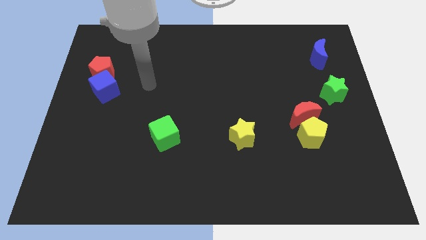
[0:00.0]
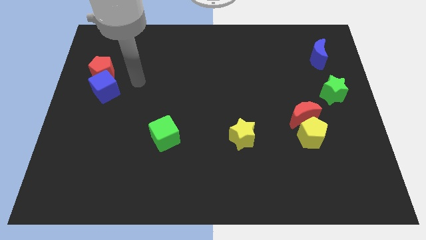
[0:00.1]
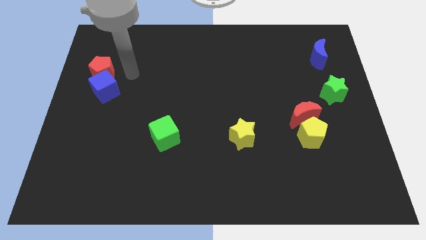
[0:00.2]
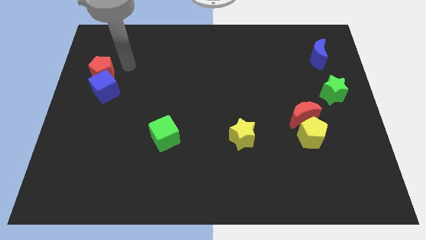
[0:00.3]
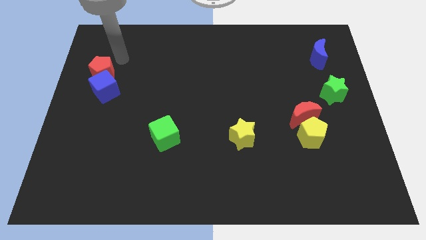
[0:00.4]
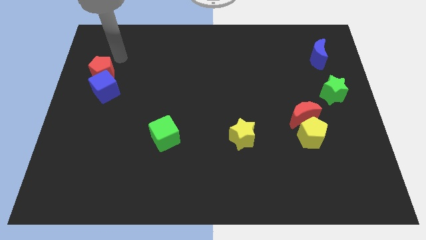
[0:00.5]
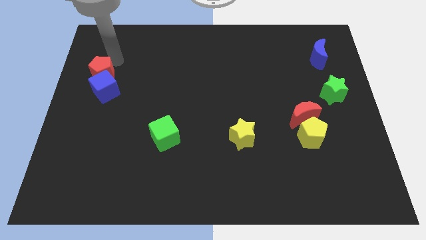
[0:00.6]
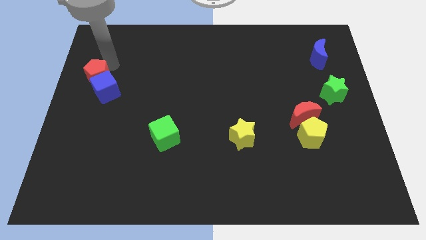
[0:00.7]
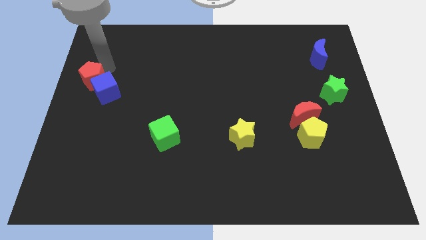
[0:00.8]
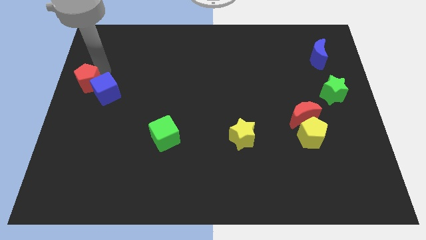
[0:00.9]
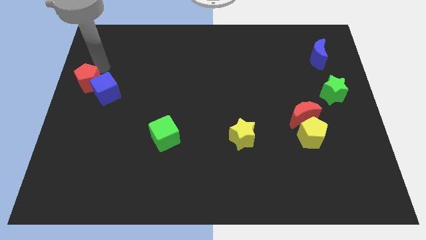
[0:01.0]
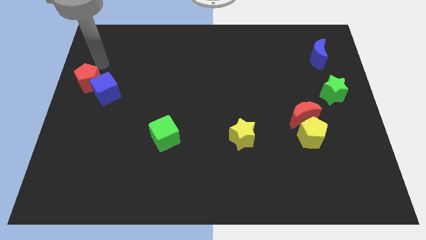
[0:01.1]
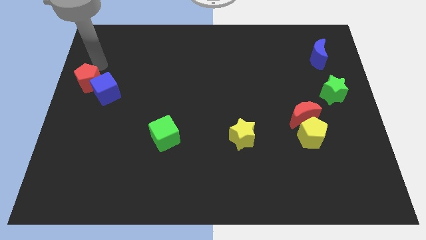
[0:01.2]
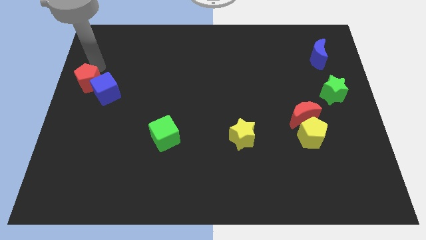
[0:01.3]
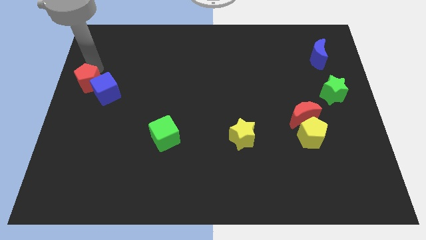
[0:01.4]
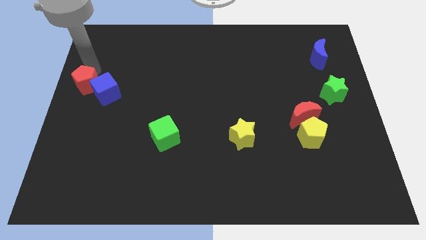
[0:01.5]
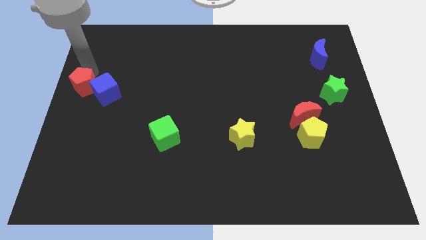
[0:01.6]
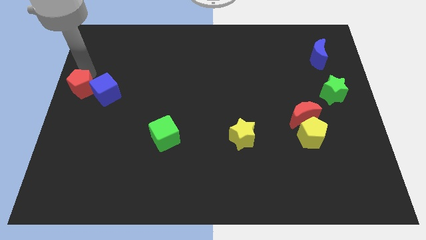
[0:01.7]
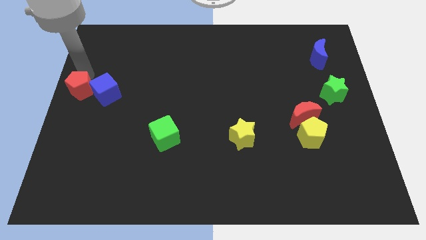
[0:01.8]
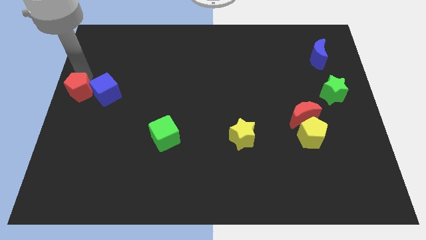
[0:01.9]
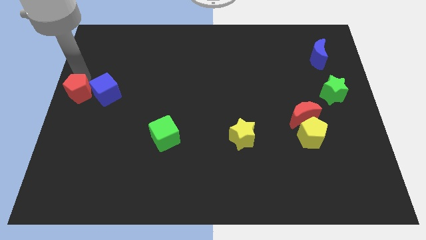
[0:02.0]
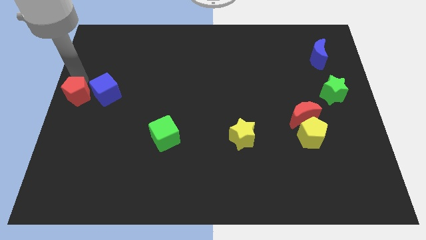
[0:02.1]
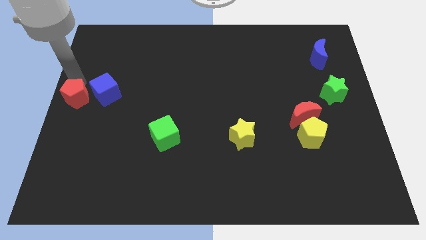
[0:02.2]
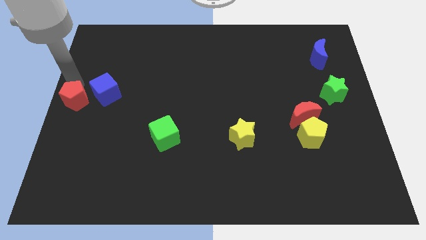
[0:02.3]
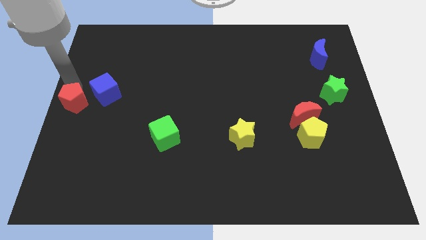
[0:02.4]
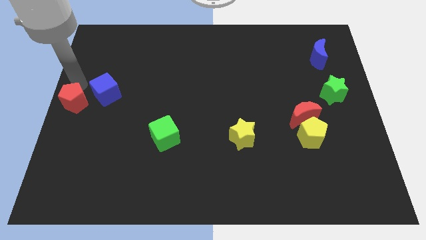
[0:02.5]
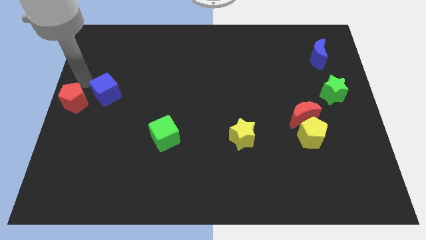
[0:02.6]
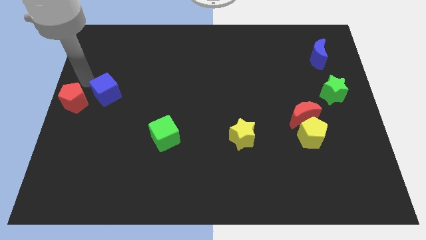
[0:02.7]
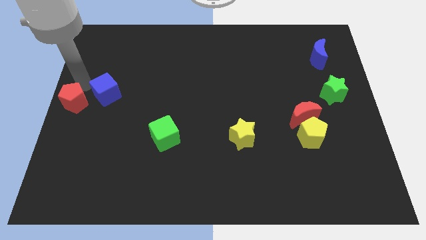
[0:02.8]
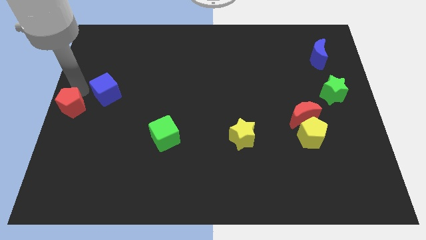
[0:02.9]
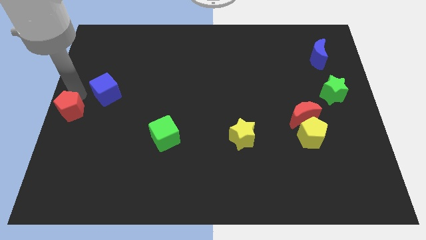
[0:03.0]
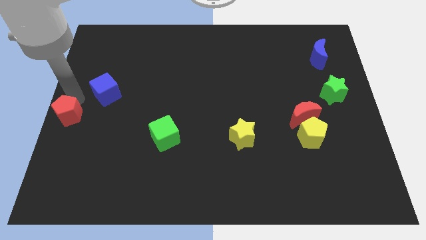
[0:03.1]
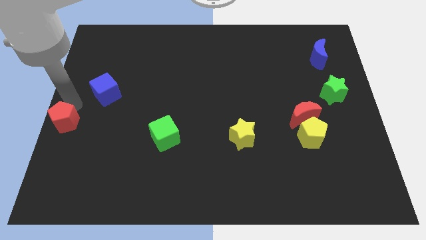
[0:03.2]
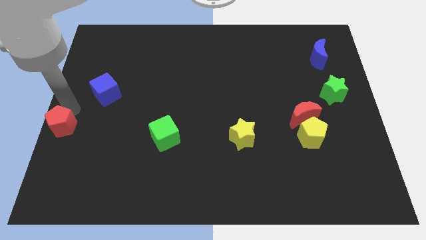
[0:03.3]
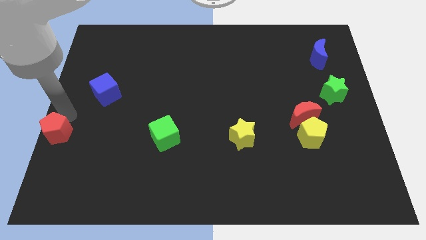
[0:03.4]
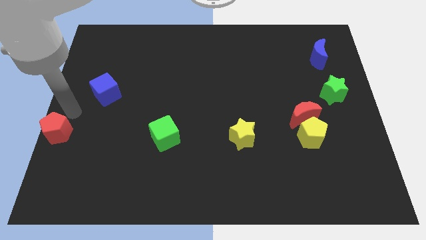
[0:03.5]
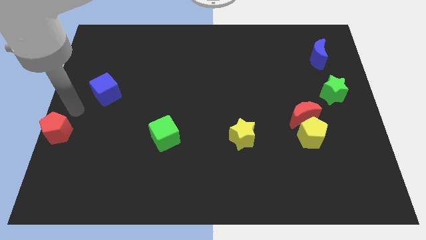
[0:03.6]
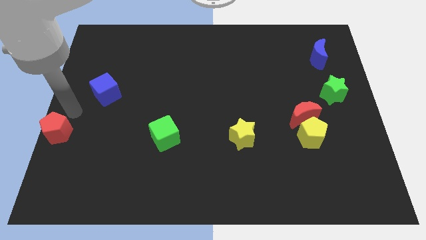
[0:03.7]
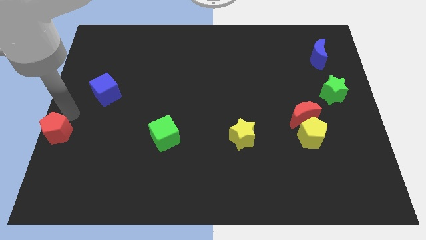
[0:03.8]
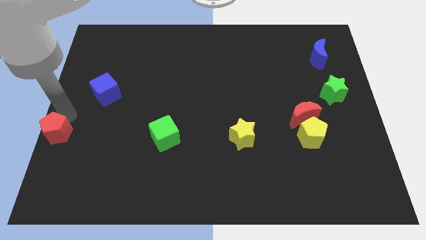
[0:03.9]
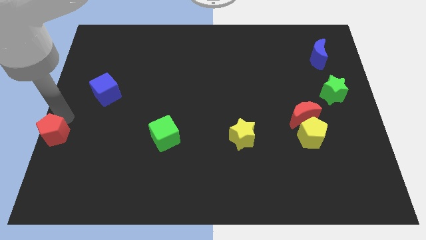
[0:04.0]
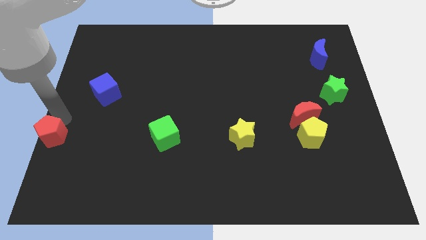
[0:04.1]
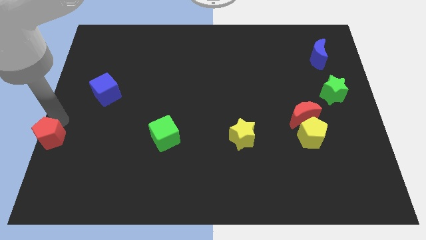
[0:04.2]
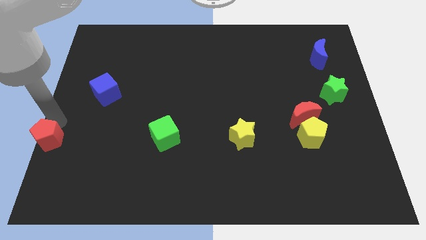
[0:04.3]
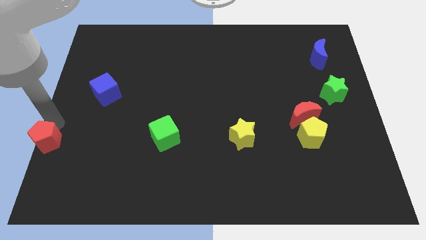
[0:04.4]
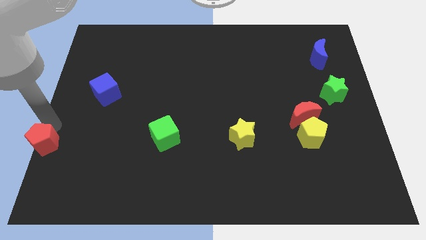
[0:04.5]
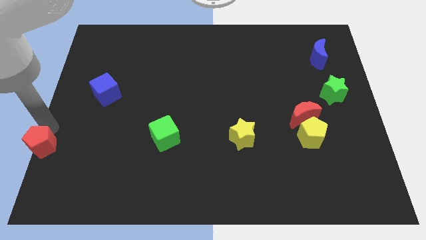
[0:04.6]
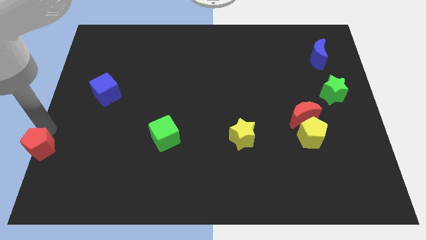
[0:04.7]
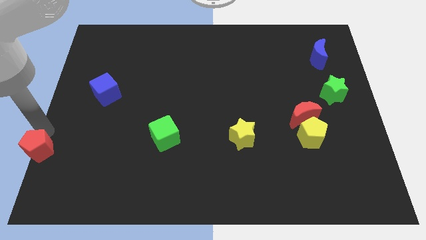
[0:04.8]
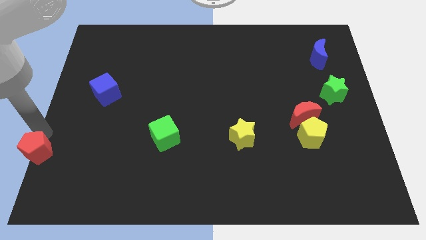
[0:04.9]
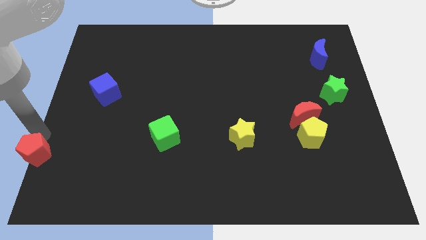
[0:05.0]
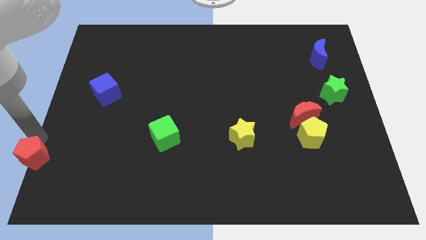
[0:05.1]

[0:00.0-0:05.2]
put the red pentagon to the bottom left

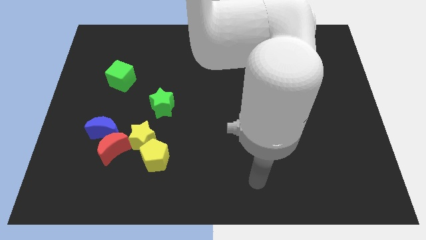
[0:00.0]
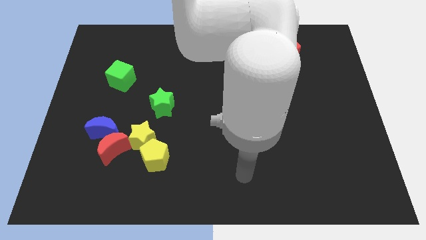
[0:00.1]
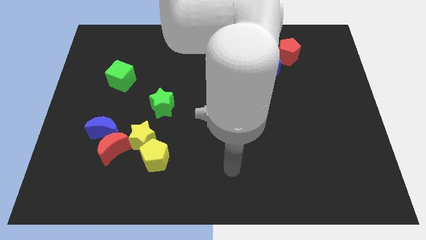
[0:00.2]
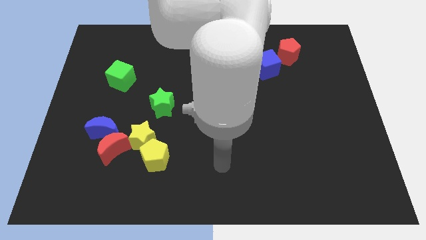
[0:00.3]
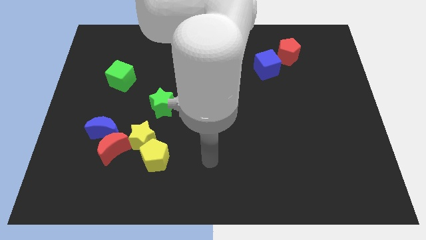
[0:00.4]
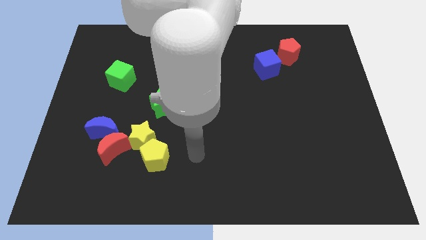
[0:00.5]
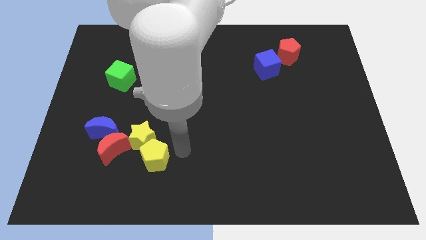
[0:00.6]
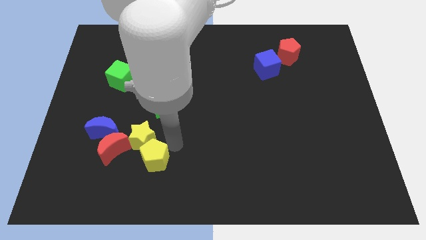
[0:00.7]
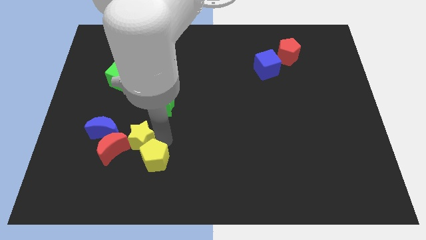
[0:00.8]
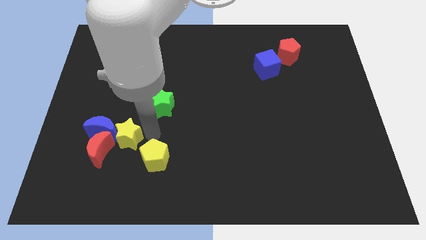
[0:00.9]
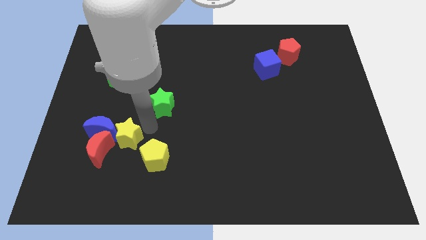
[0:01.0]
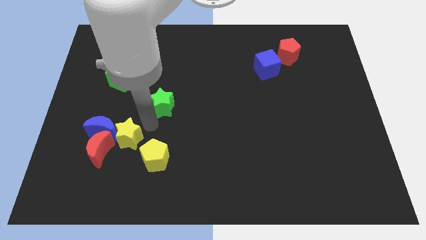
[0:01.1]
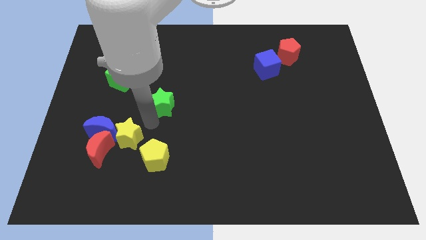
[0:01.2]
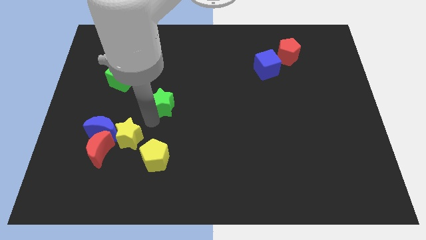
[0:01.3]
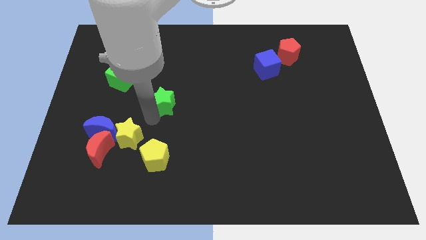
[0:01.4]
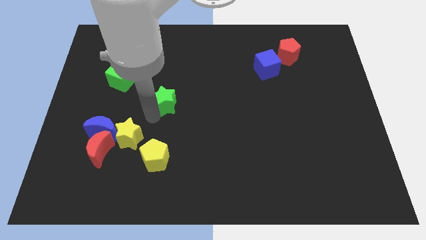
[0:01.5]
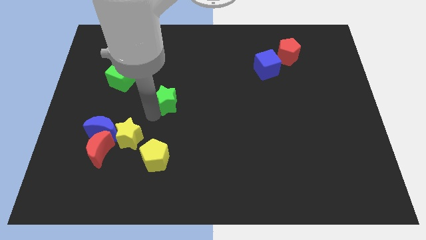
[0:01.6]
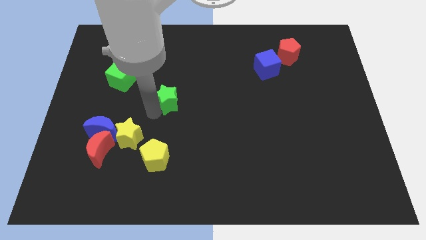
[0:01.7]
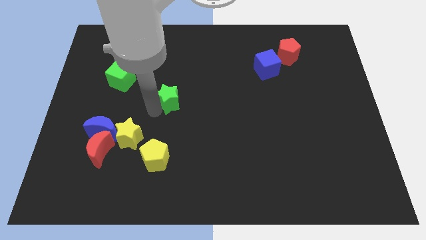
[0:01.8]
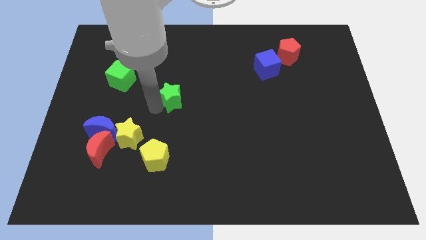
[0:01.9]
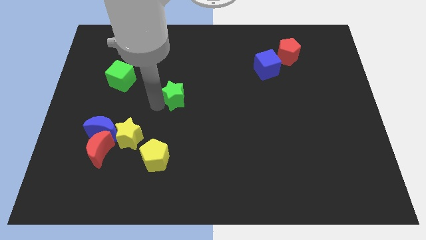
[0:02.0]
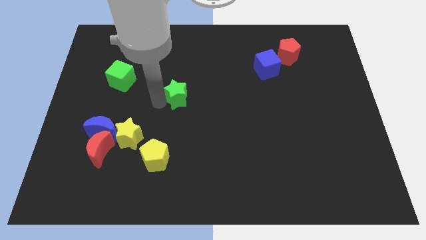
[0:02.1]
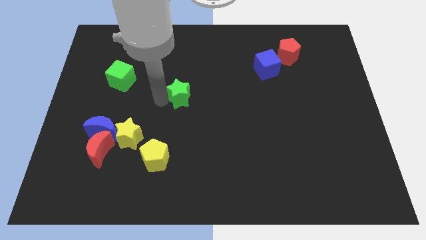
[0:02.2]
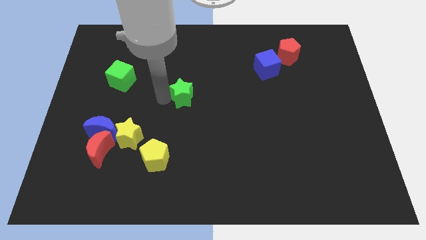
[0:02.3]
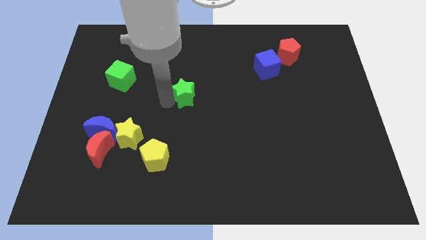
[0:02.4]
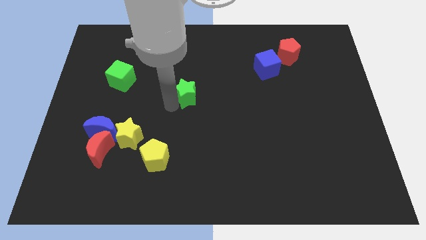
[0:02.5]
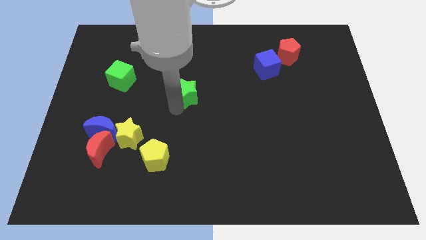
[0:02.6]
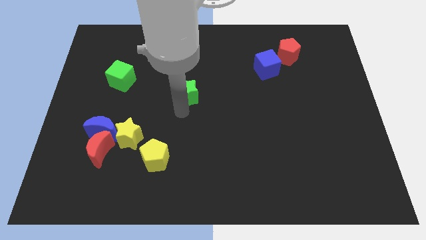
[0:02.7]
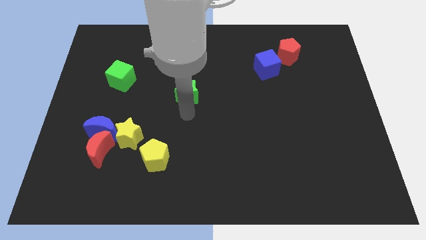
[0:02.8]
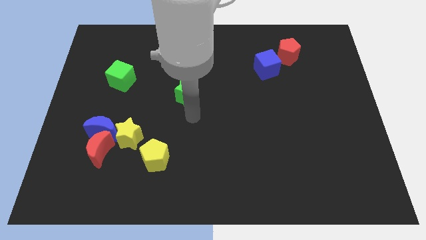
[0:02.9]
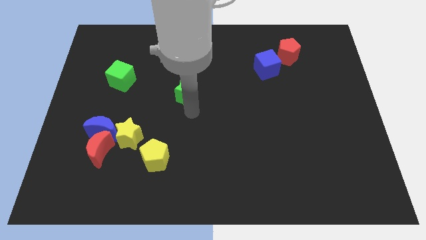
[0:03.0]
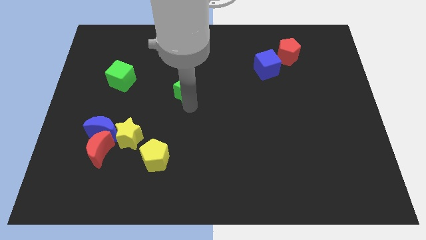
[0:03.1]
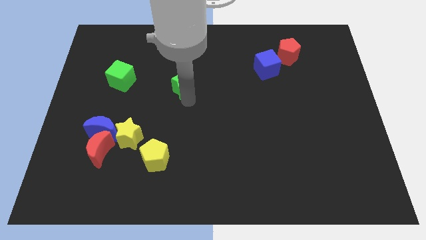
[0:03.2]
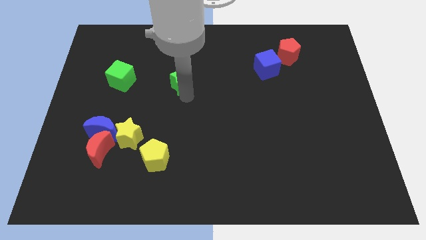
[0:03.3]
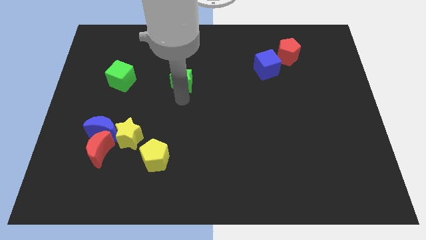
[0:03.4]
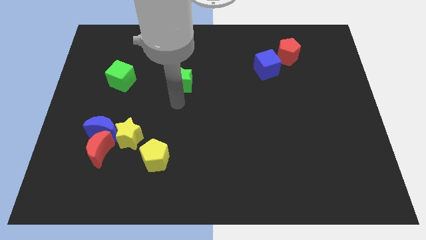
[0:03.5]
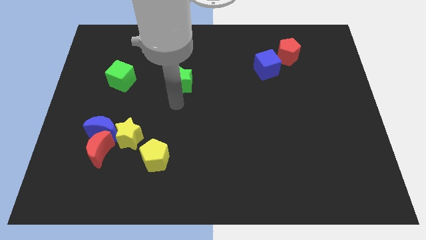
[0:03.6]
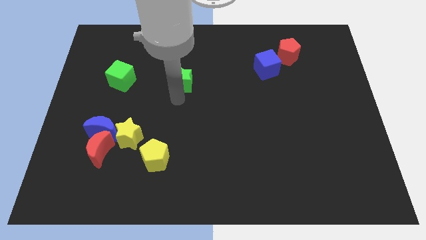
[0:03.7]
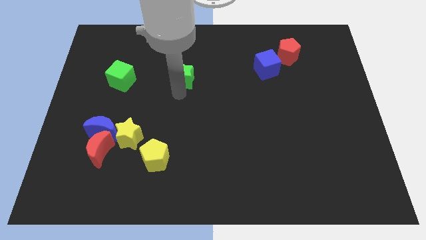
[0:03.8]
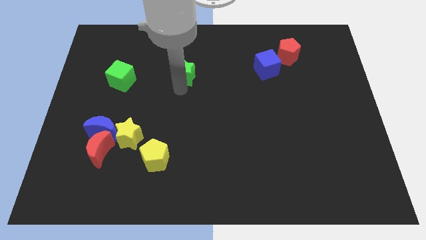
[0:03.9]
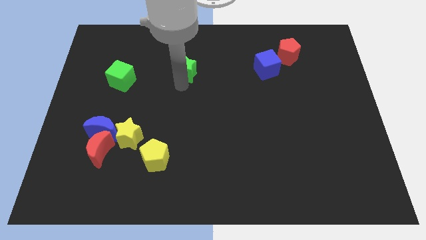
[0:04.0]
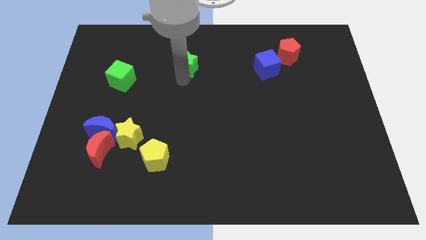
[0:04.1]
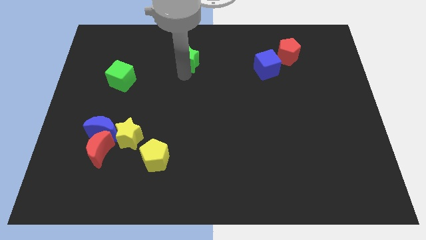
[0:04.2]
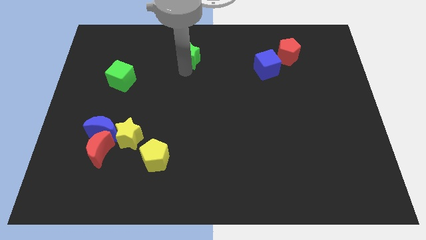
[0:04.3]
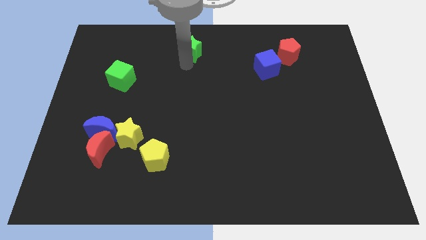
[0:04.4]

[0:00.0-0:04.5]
move the green star to the towards your base
